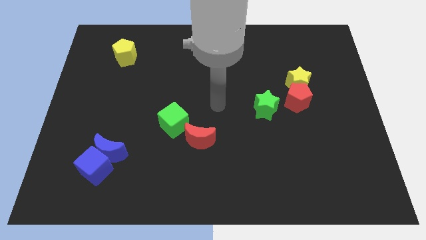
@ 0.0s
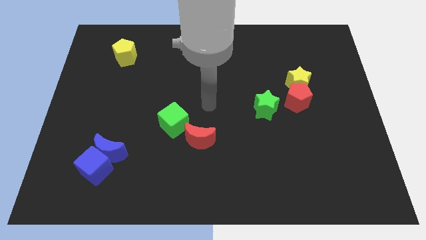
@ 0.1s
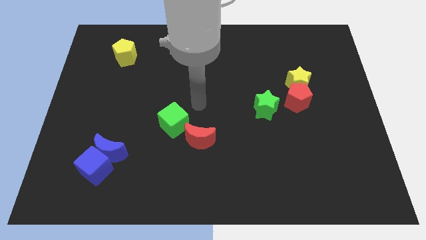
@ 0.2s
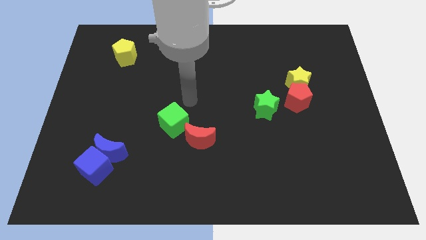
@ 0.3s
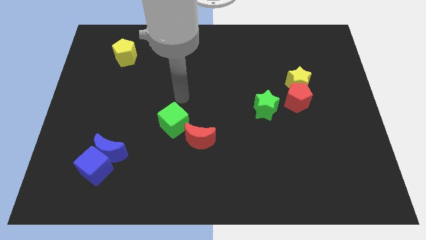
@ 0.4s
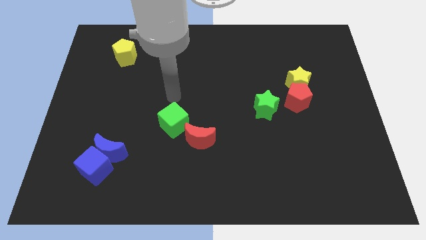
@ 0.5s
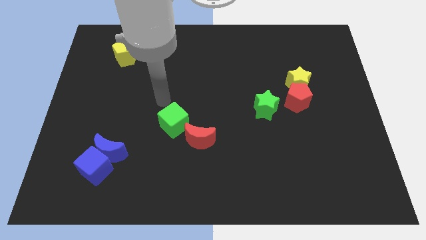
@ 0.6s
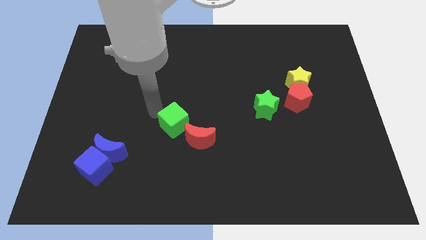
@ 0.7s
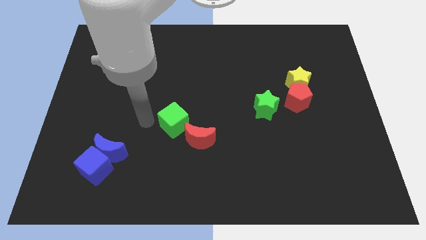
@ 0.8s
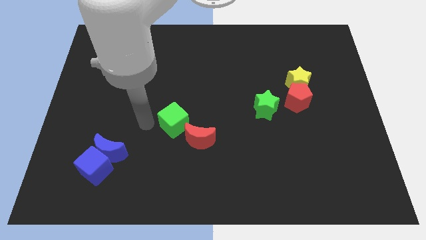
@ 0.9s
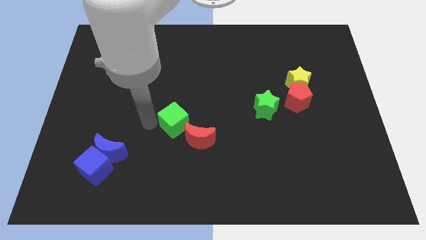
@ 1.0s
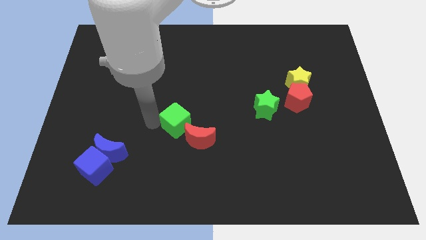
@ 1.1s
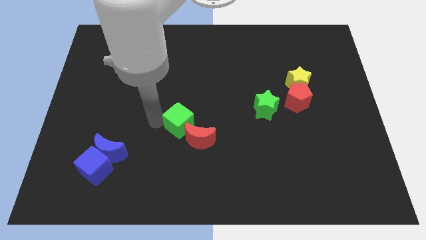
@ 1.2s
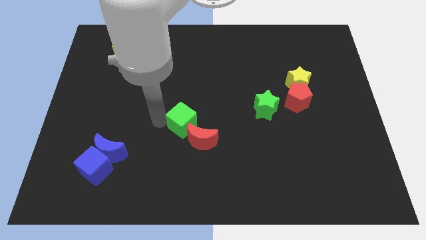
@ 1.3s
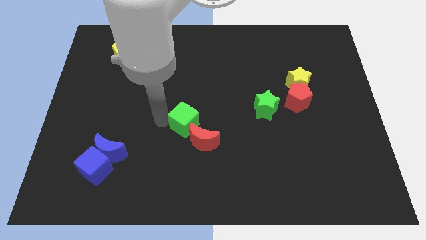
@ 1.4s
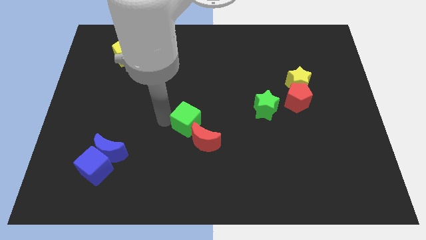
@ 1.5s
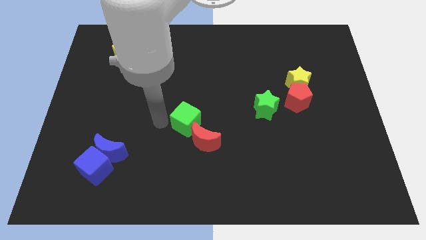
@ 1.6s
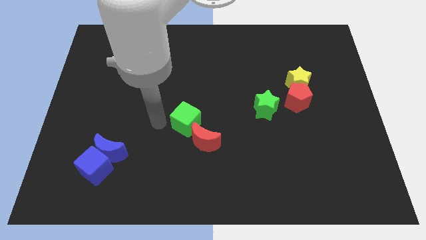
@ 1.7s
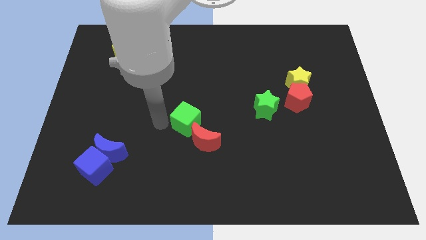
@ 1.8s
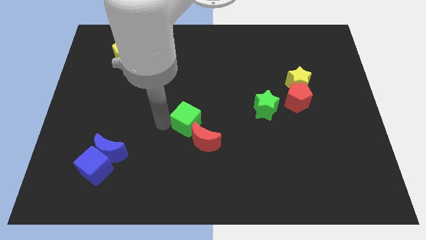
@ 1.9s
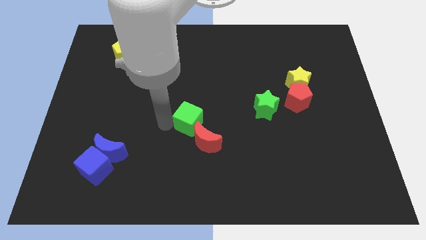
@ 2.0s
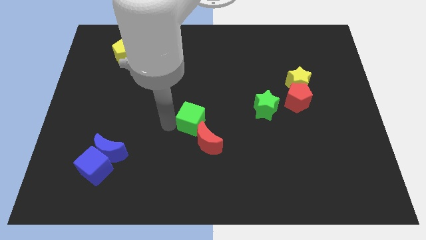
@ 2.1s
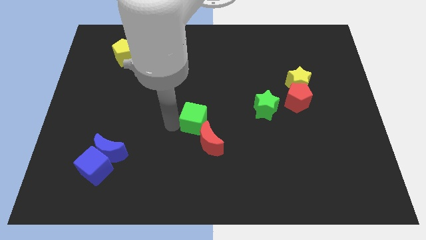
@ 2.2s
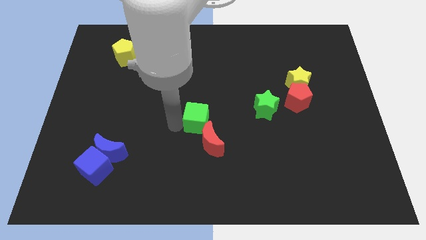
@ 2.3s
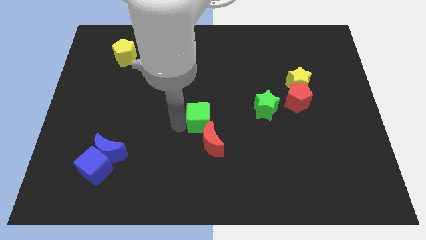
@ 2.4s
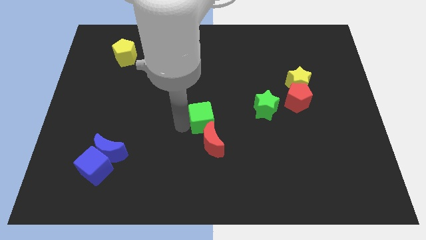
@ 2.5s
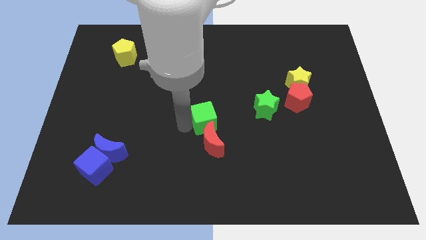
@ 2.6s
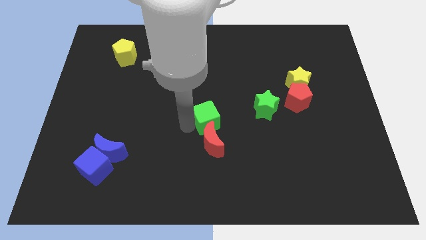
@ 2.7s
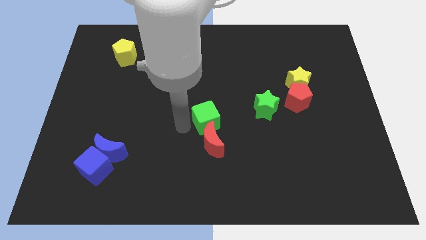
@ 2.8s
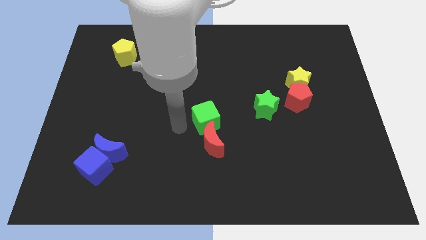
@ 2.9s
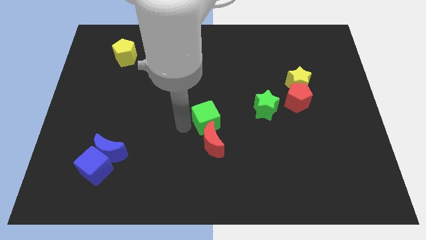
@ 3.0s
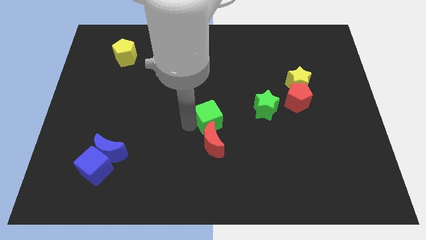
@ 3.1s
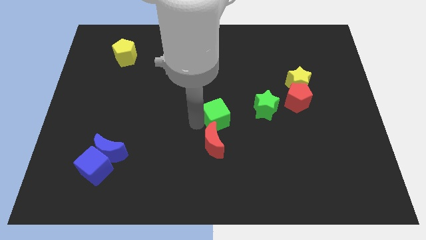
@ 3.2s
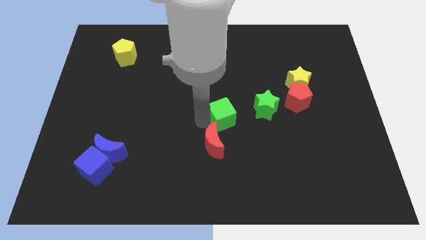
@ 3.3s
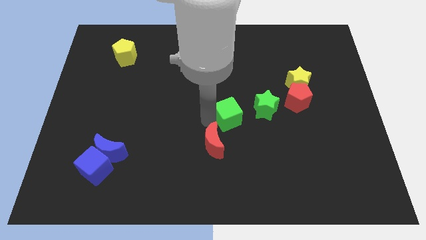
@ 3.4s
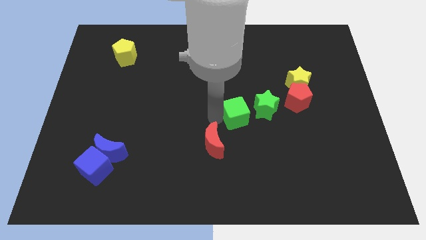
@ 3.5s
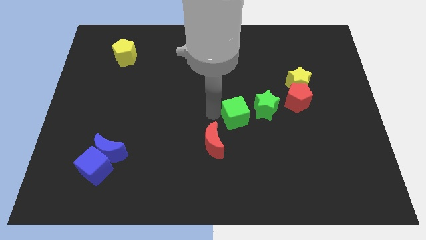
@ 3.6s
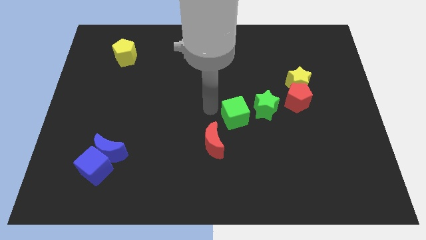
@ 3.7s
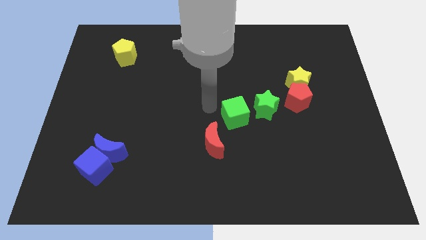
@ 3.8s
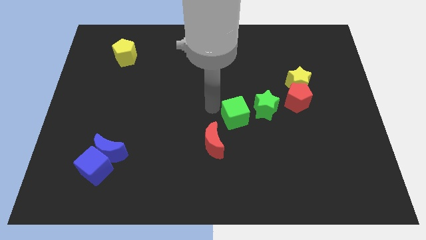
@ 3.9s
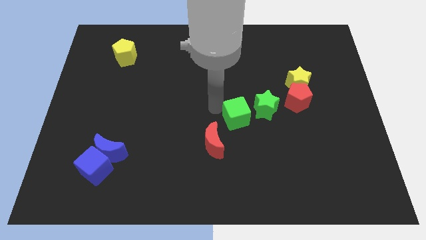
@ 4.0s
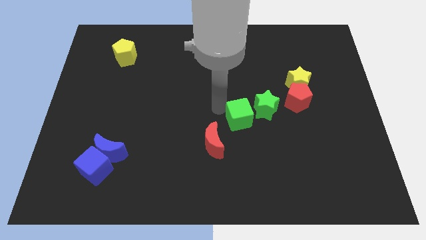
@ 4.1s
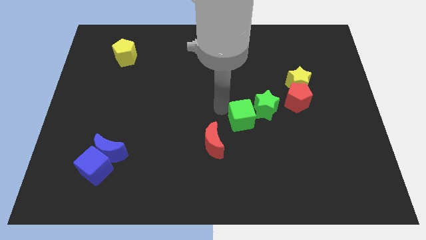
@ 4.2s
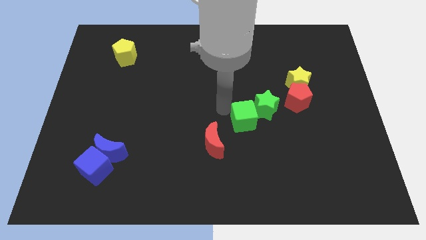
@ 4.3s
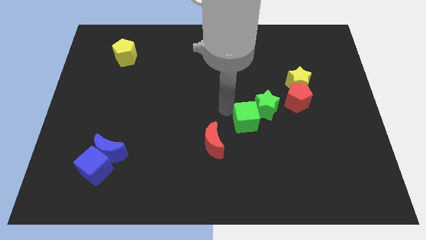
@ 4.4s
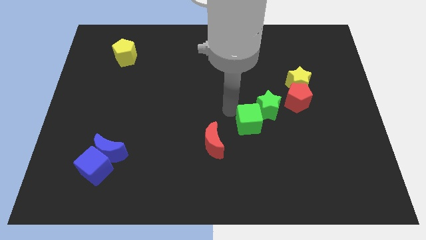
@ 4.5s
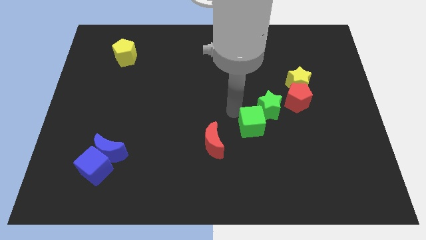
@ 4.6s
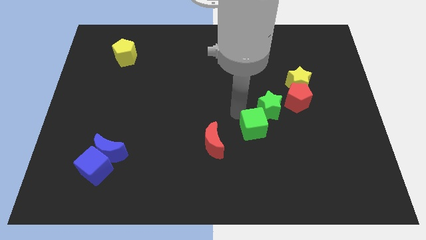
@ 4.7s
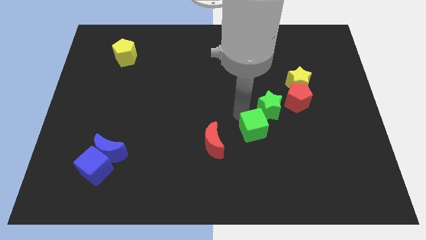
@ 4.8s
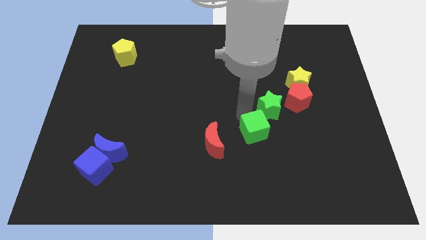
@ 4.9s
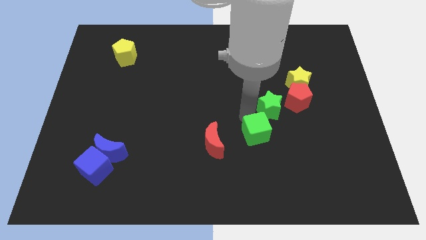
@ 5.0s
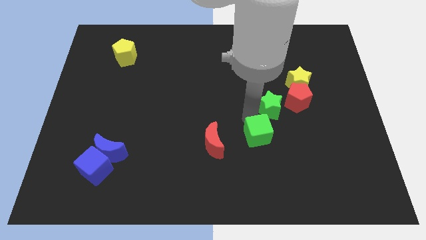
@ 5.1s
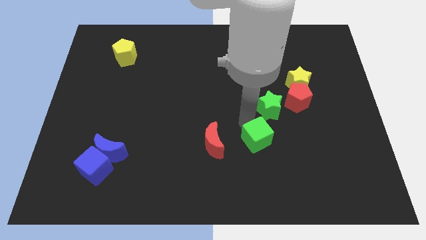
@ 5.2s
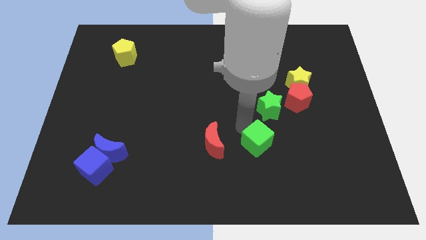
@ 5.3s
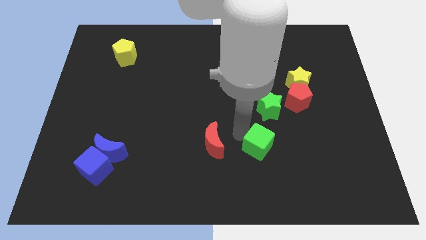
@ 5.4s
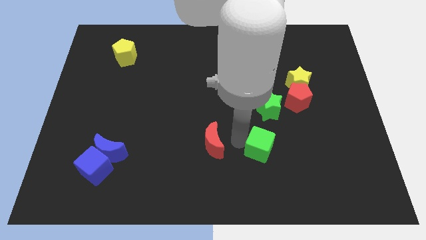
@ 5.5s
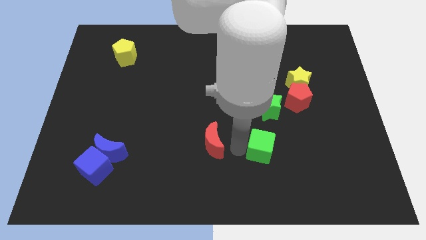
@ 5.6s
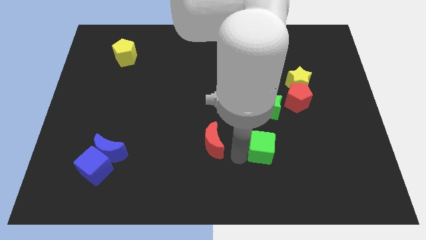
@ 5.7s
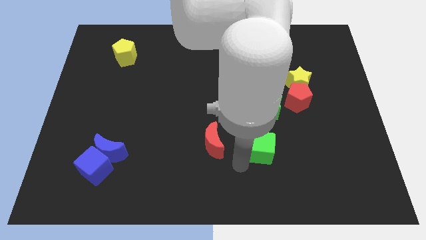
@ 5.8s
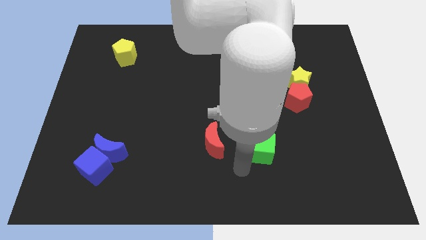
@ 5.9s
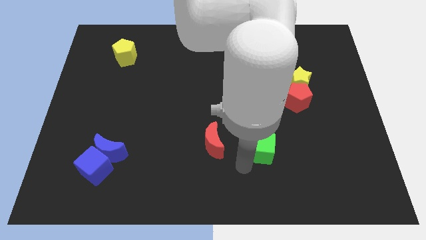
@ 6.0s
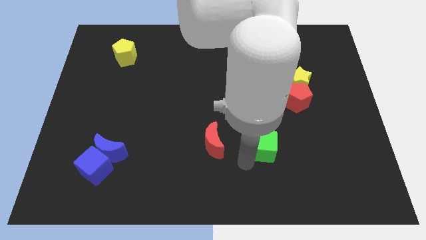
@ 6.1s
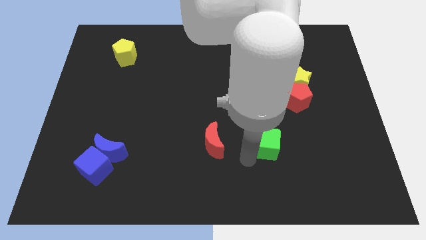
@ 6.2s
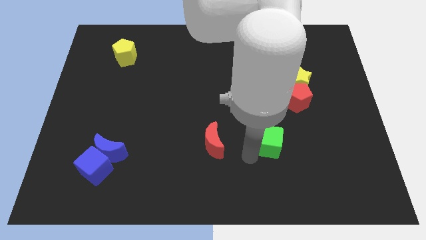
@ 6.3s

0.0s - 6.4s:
slide the green cube right

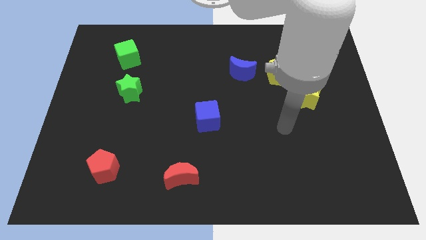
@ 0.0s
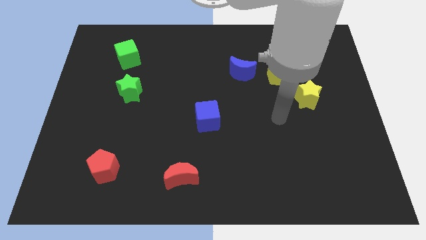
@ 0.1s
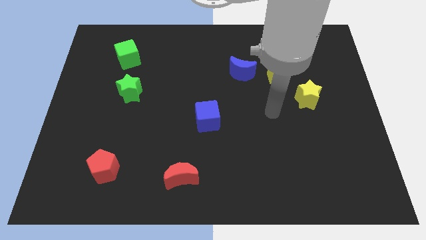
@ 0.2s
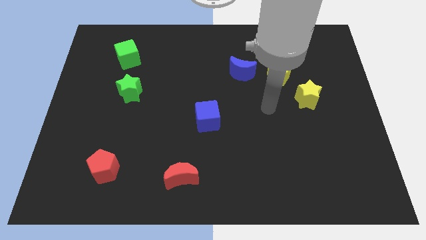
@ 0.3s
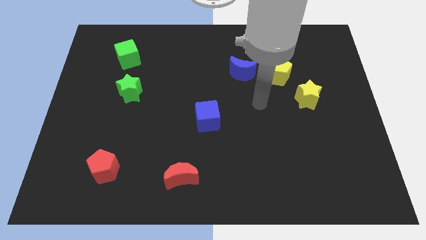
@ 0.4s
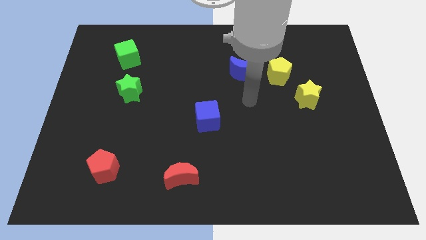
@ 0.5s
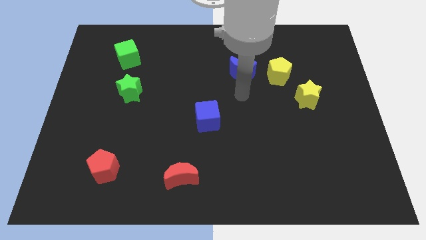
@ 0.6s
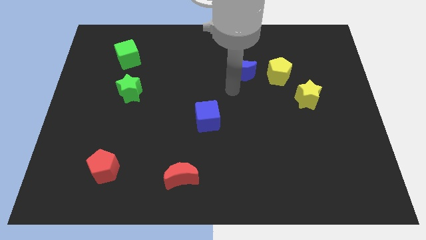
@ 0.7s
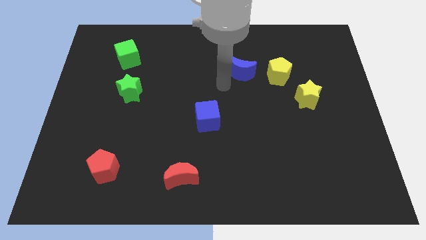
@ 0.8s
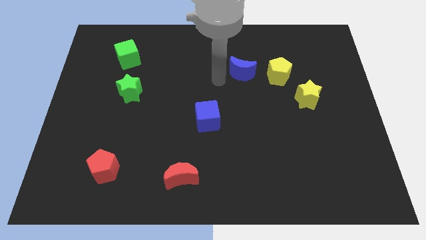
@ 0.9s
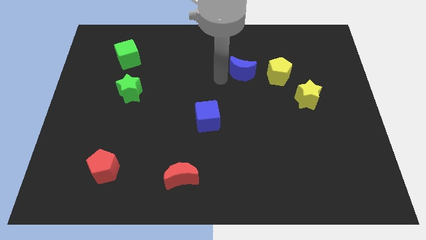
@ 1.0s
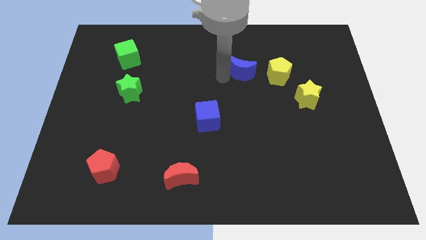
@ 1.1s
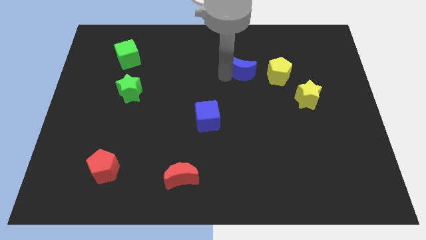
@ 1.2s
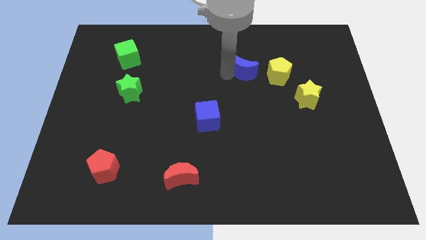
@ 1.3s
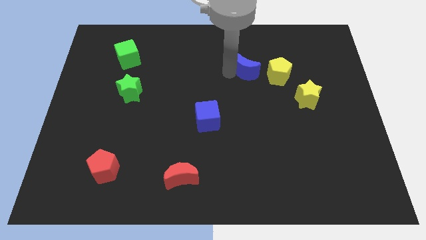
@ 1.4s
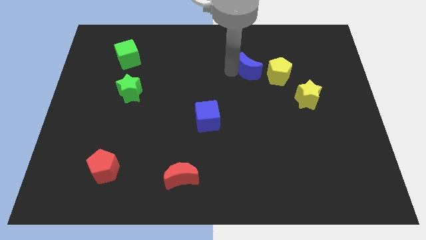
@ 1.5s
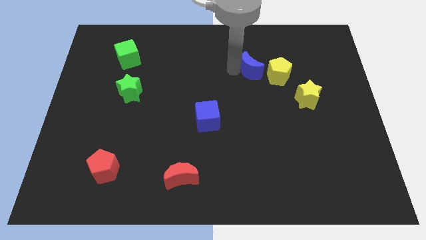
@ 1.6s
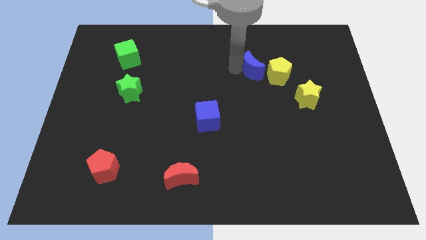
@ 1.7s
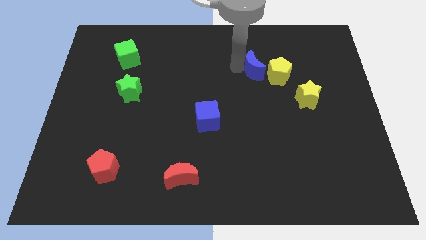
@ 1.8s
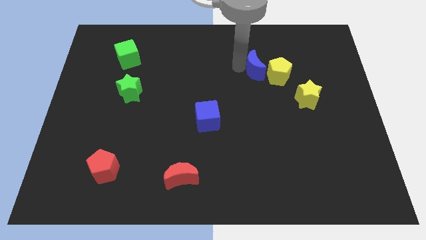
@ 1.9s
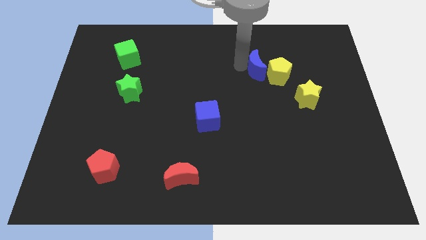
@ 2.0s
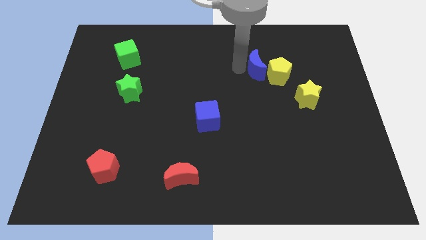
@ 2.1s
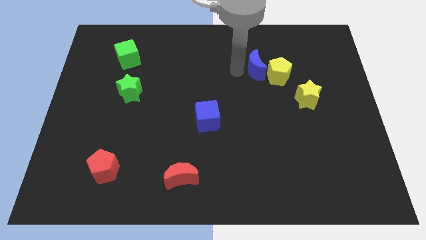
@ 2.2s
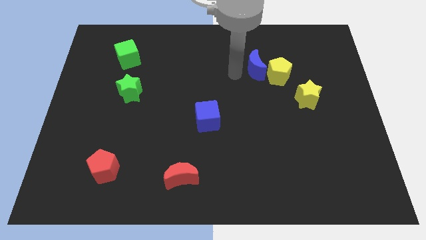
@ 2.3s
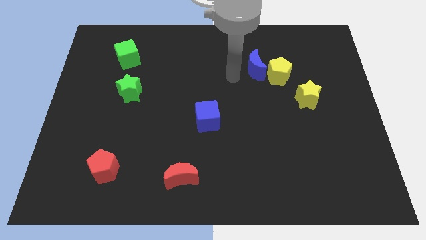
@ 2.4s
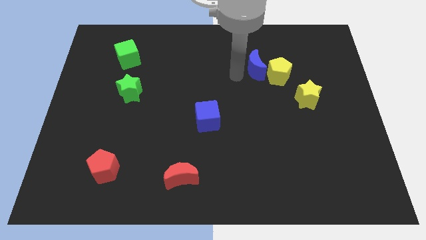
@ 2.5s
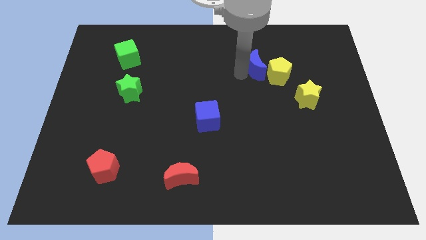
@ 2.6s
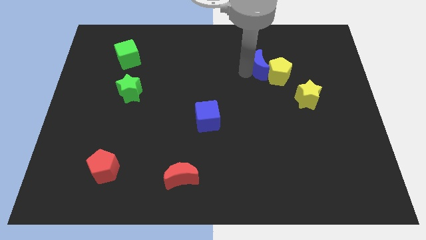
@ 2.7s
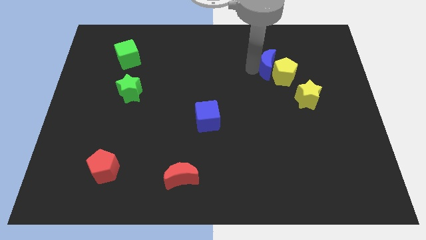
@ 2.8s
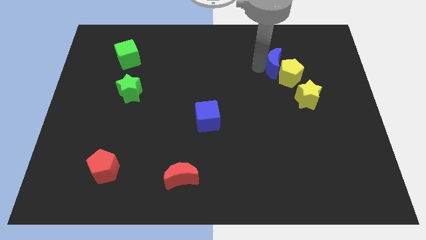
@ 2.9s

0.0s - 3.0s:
slightly move the blue moon to the right
